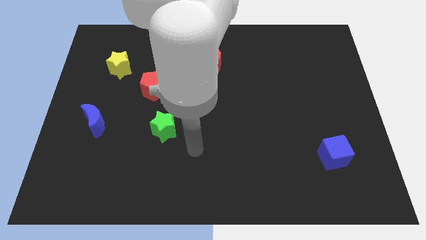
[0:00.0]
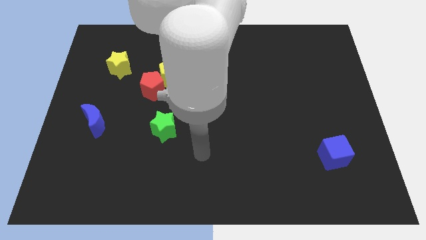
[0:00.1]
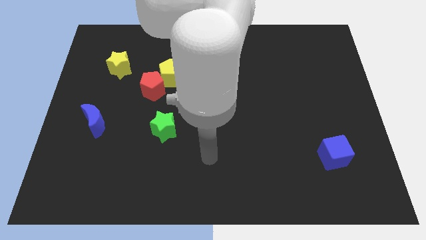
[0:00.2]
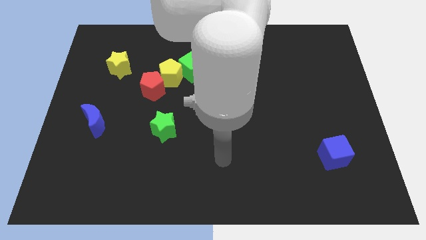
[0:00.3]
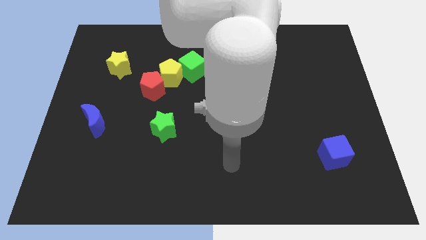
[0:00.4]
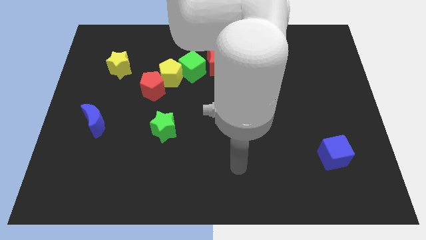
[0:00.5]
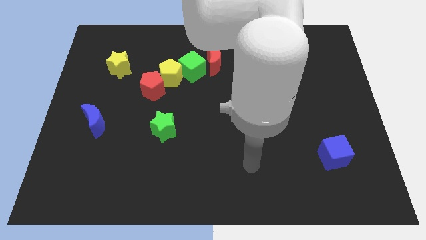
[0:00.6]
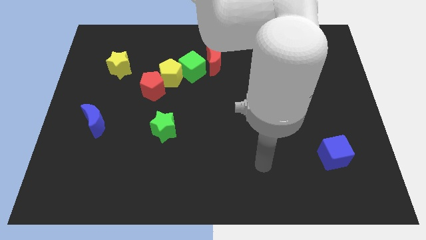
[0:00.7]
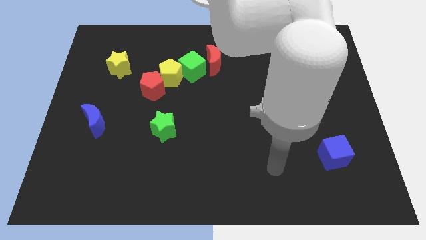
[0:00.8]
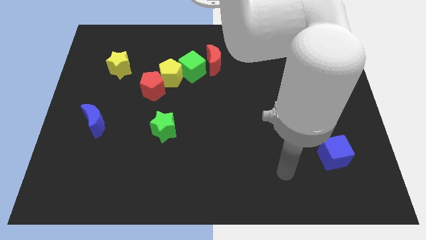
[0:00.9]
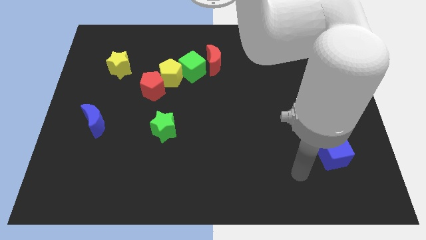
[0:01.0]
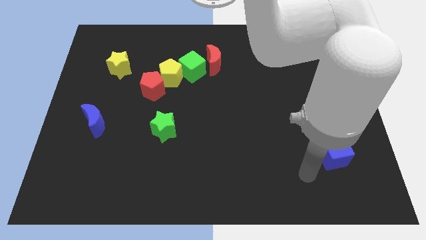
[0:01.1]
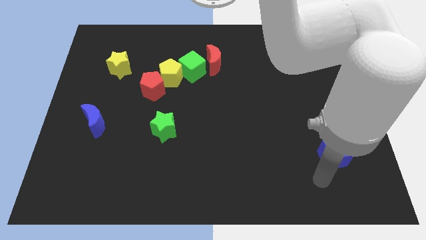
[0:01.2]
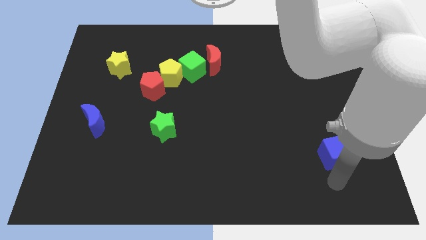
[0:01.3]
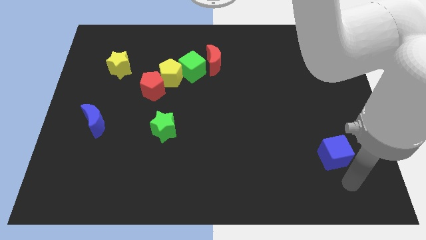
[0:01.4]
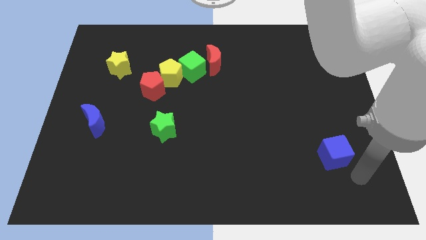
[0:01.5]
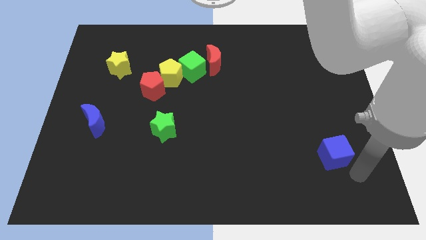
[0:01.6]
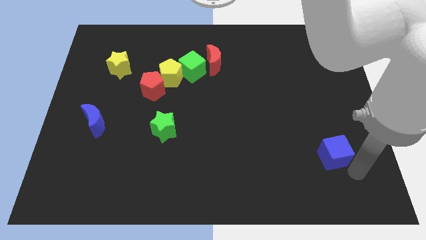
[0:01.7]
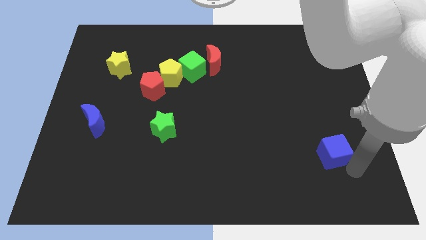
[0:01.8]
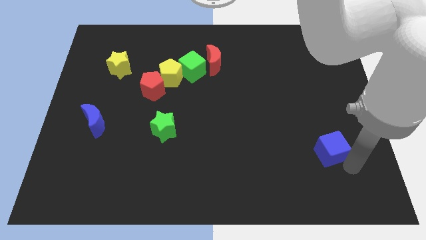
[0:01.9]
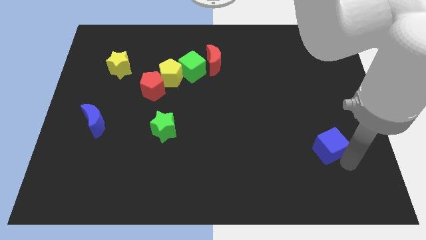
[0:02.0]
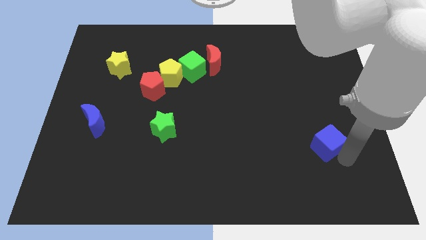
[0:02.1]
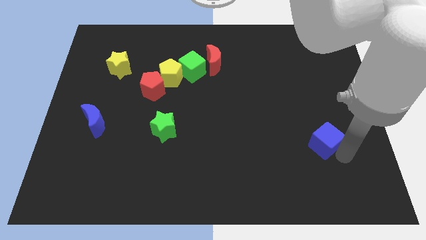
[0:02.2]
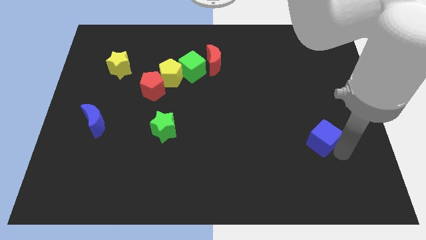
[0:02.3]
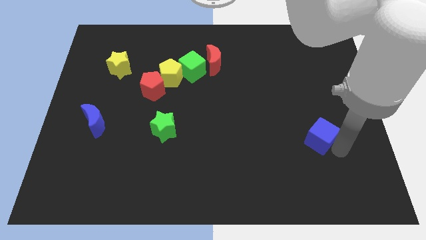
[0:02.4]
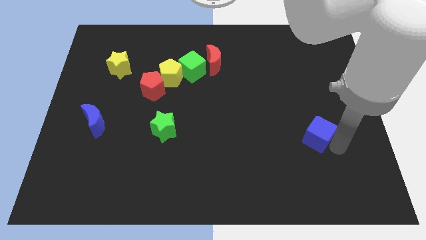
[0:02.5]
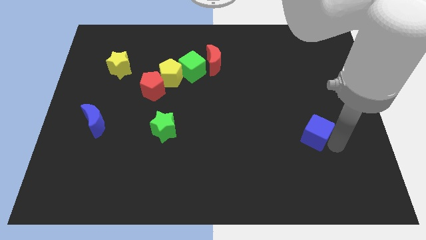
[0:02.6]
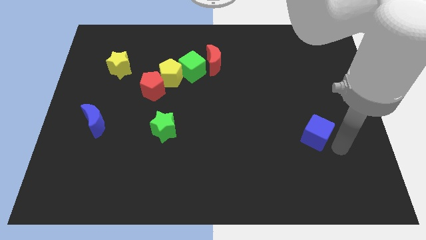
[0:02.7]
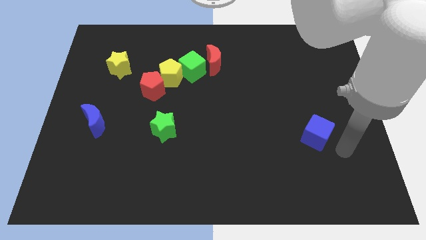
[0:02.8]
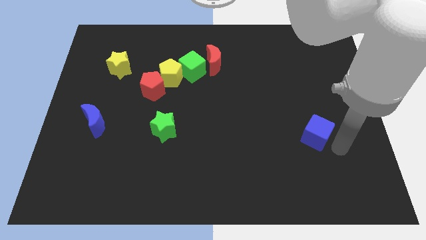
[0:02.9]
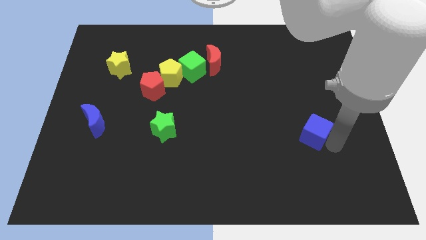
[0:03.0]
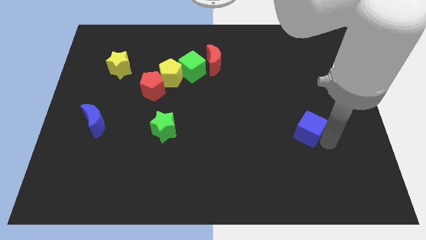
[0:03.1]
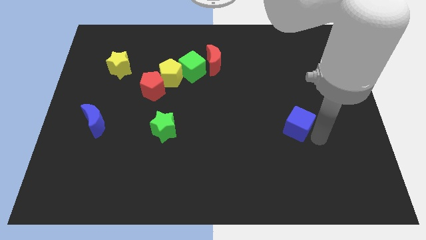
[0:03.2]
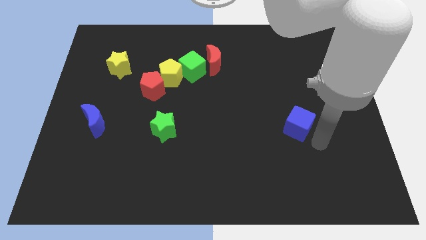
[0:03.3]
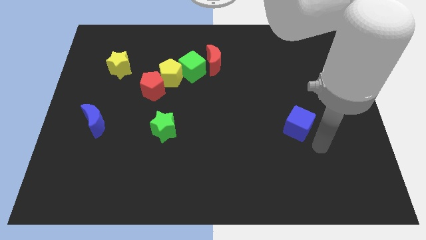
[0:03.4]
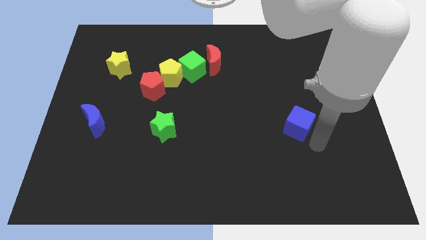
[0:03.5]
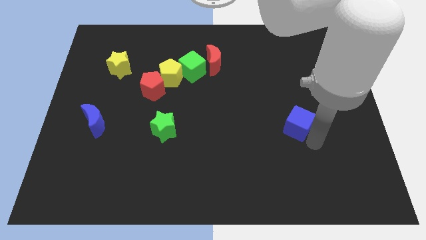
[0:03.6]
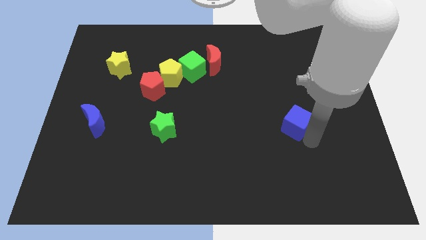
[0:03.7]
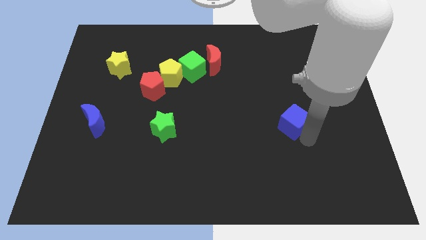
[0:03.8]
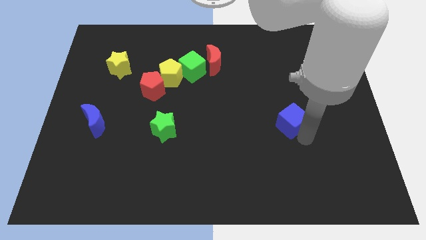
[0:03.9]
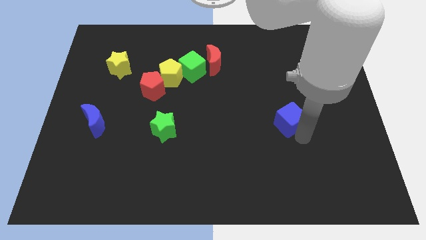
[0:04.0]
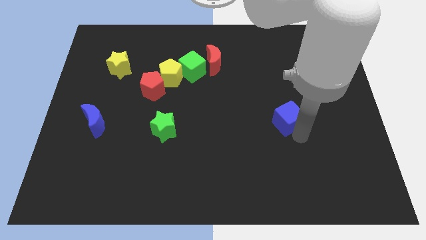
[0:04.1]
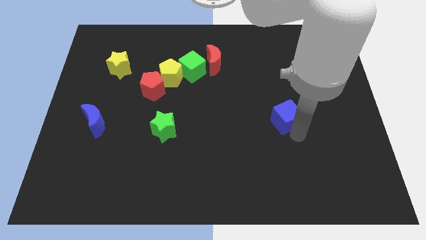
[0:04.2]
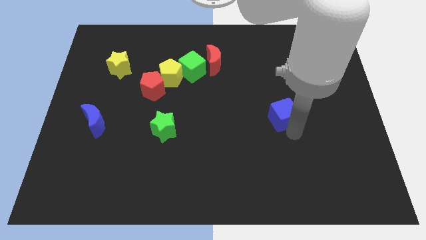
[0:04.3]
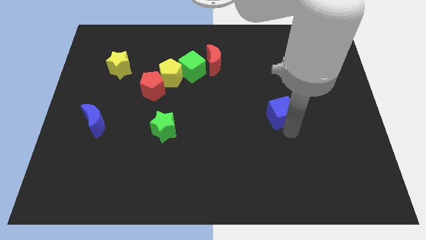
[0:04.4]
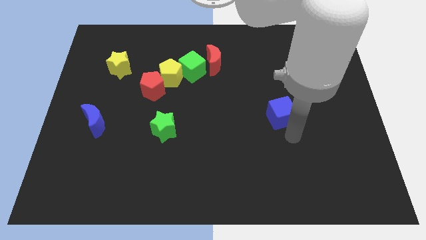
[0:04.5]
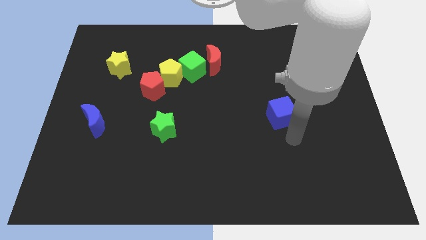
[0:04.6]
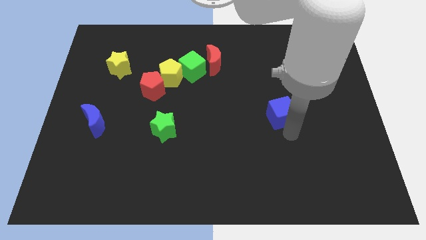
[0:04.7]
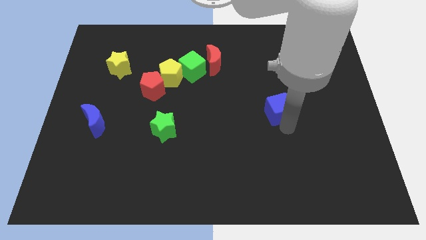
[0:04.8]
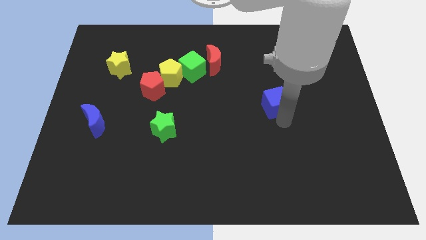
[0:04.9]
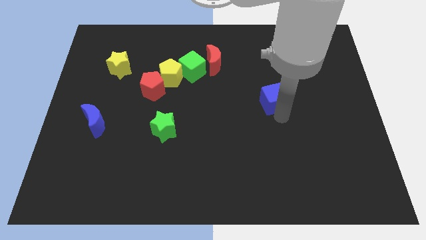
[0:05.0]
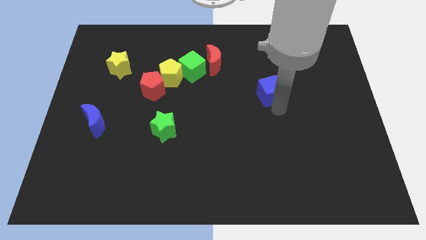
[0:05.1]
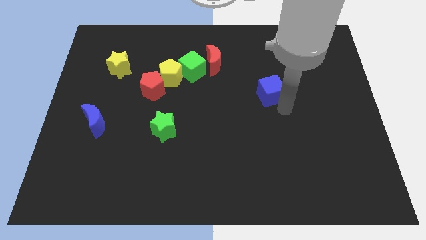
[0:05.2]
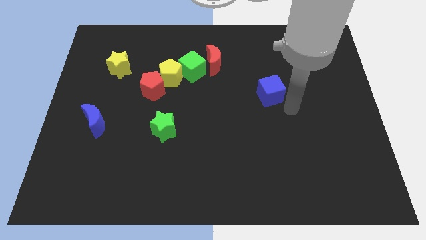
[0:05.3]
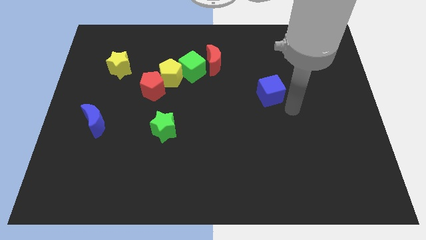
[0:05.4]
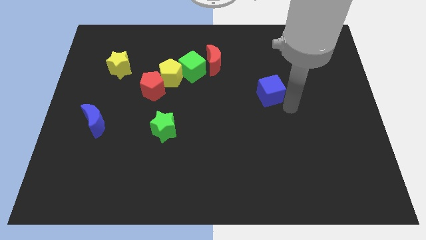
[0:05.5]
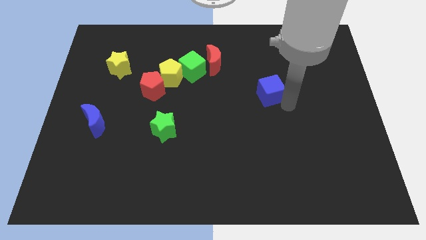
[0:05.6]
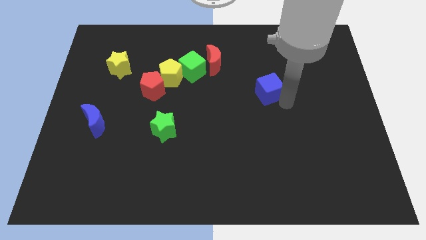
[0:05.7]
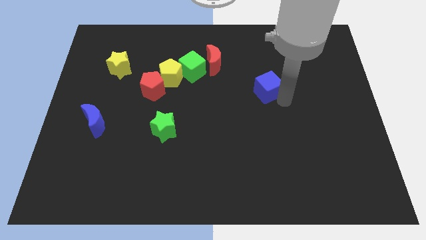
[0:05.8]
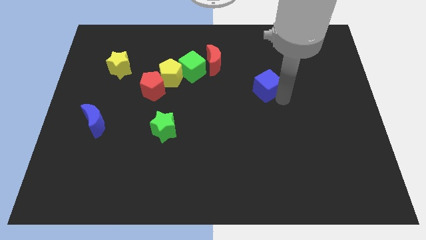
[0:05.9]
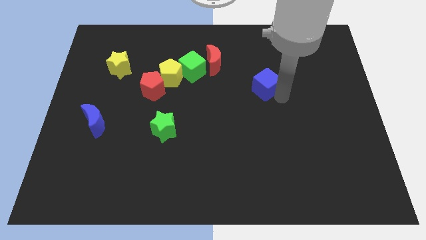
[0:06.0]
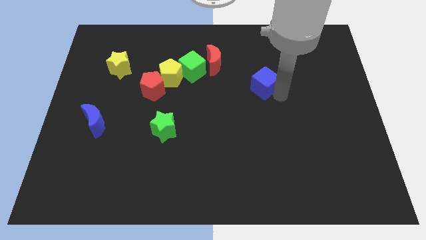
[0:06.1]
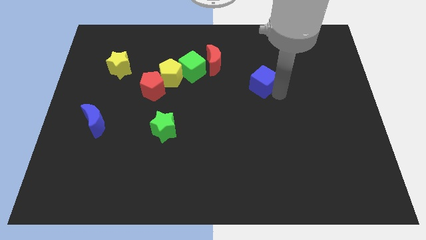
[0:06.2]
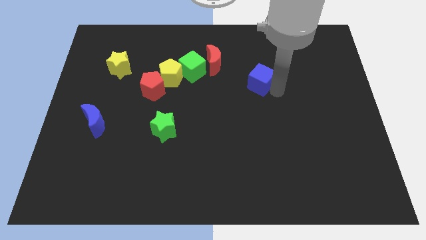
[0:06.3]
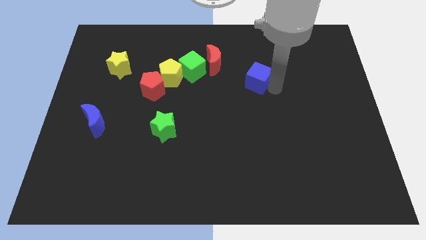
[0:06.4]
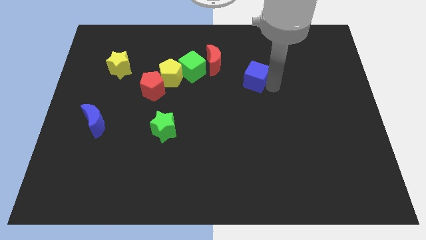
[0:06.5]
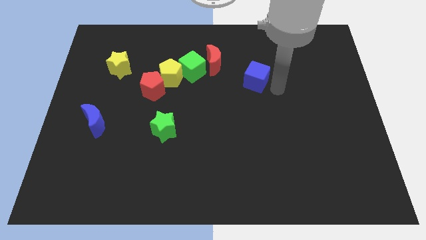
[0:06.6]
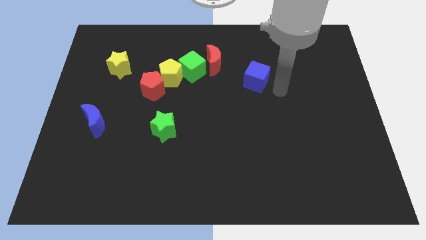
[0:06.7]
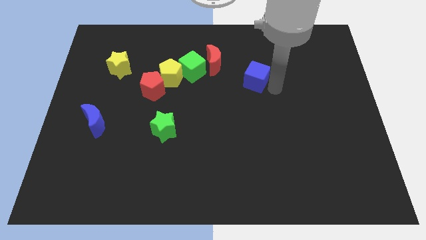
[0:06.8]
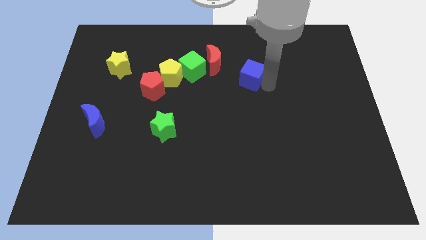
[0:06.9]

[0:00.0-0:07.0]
move the blue cube just right of the green cube

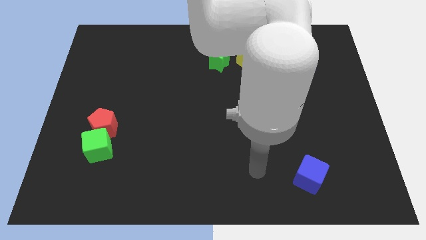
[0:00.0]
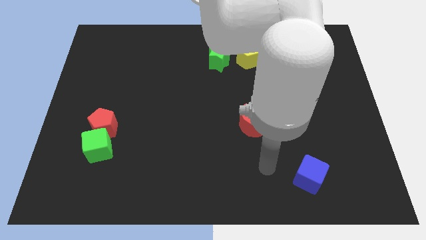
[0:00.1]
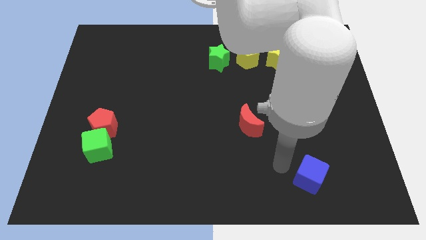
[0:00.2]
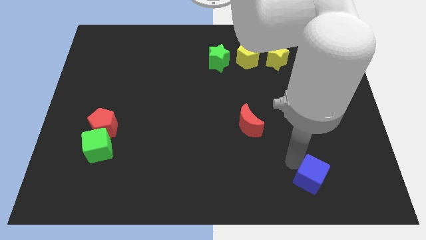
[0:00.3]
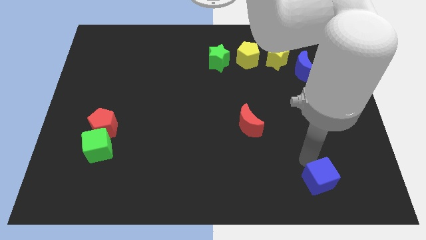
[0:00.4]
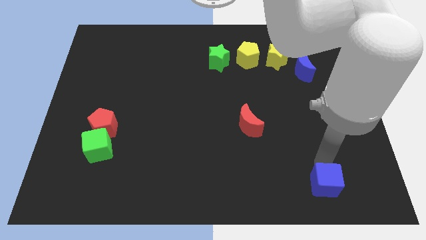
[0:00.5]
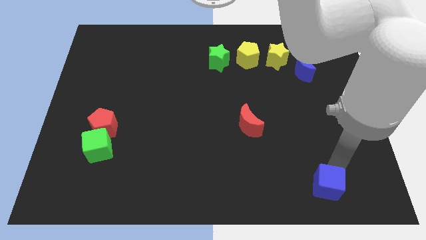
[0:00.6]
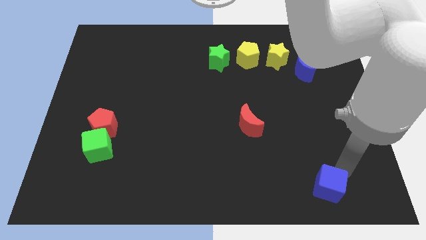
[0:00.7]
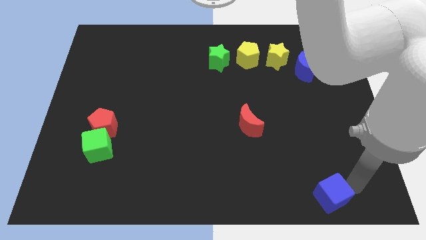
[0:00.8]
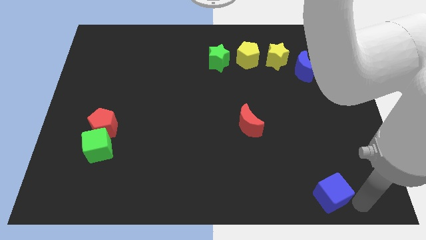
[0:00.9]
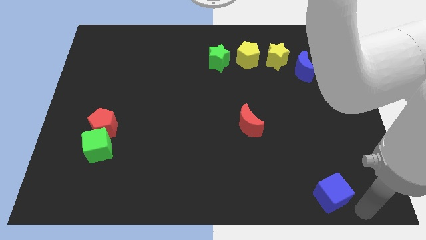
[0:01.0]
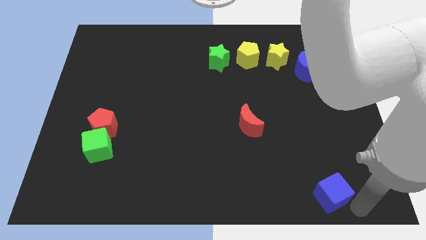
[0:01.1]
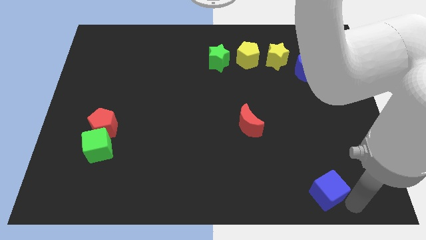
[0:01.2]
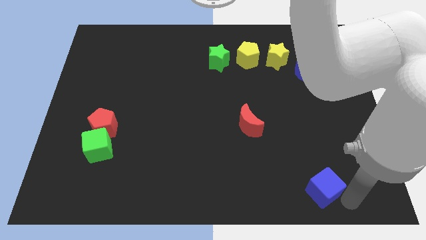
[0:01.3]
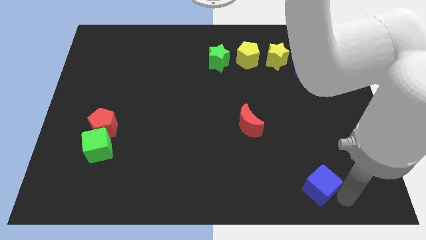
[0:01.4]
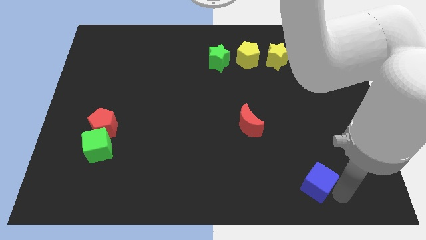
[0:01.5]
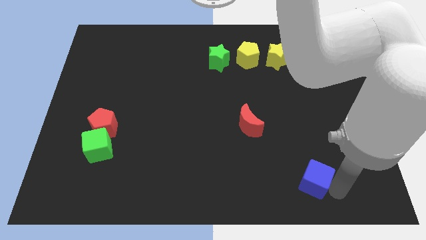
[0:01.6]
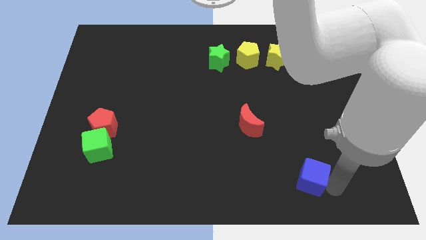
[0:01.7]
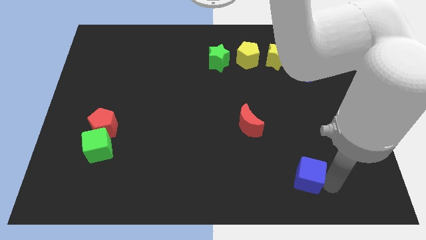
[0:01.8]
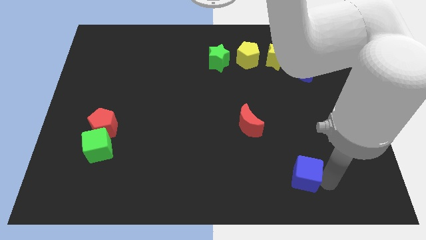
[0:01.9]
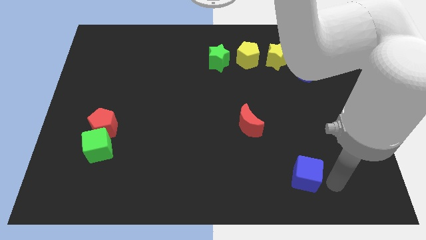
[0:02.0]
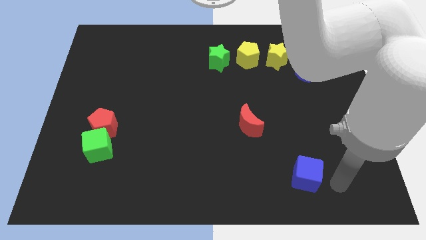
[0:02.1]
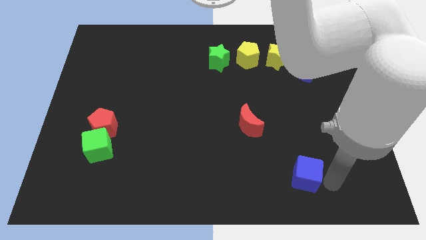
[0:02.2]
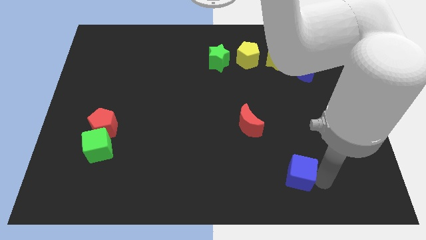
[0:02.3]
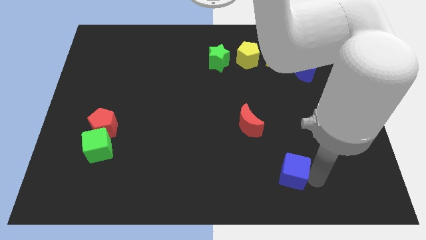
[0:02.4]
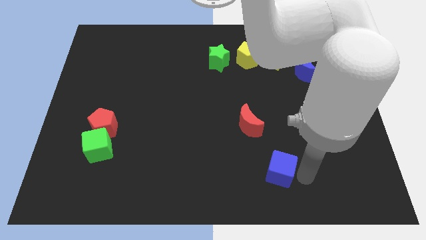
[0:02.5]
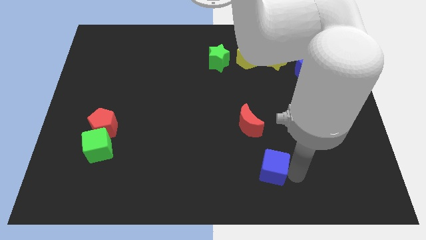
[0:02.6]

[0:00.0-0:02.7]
slide the blue cube to the bottom side of the red moon
